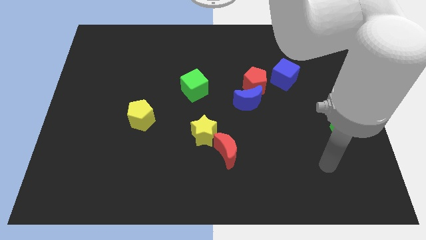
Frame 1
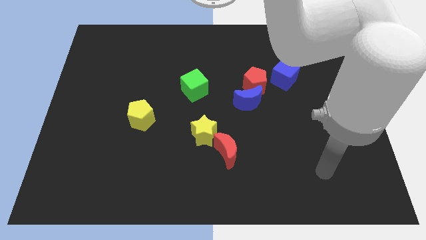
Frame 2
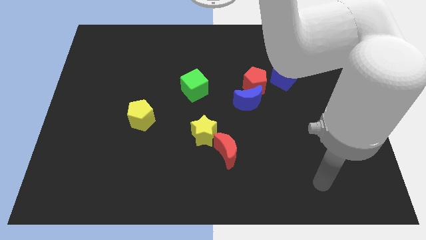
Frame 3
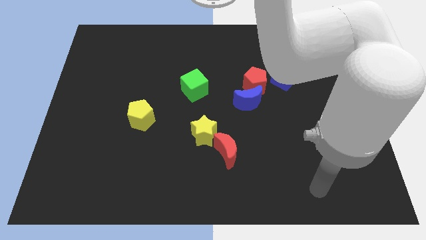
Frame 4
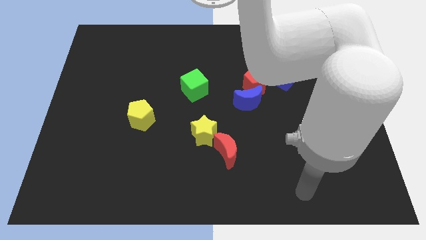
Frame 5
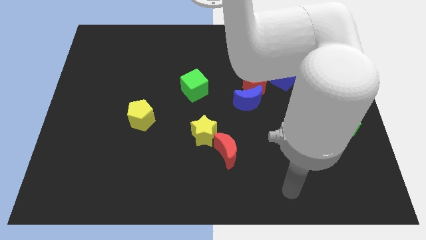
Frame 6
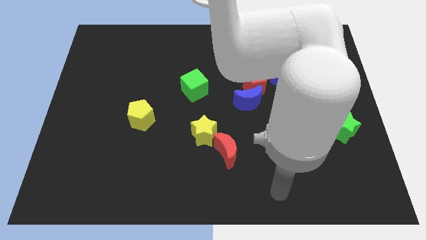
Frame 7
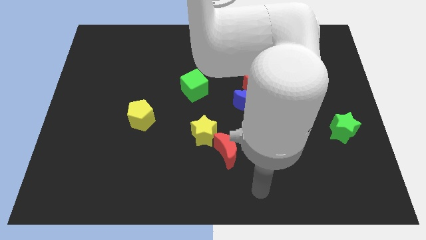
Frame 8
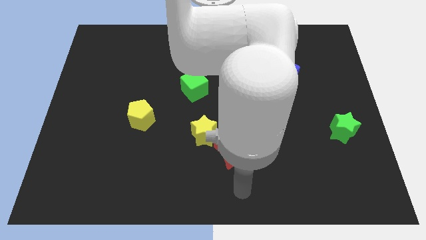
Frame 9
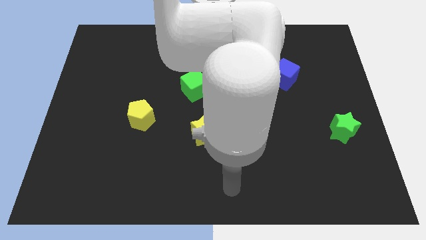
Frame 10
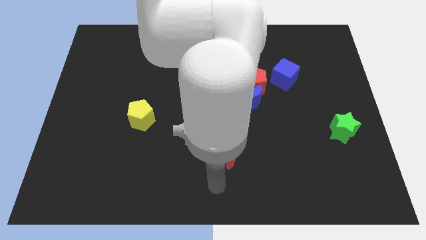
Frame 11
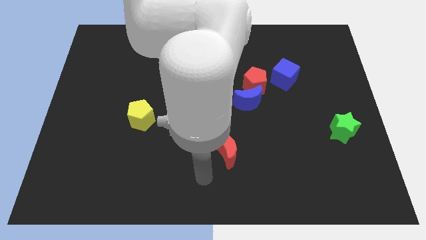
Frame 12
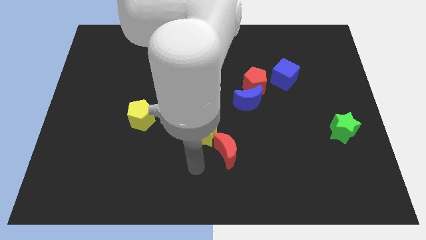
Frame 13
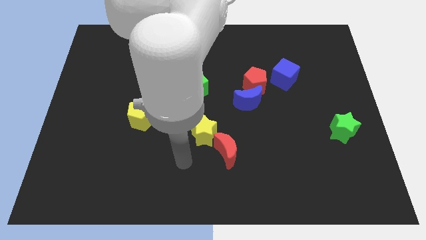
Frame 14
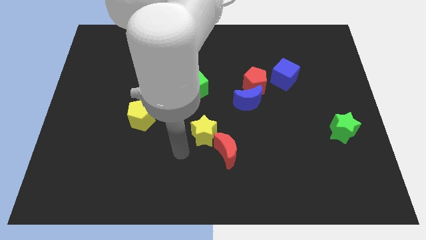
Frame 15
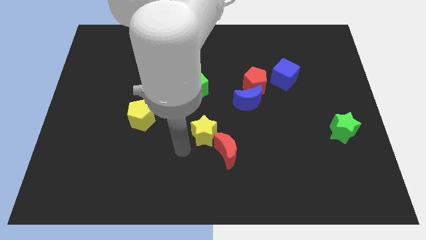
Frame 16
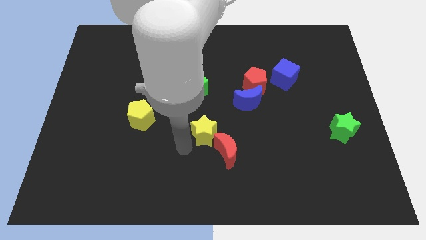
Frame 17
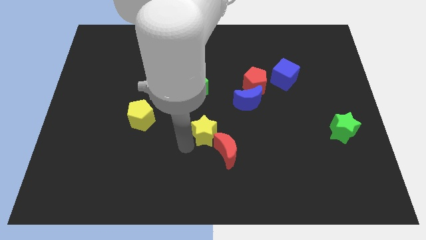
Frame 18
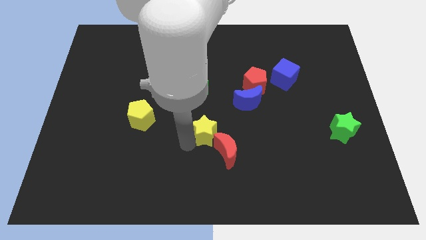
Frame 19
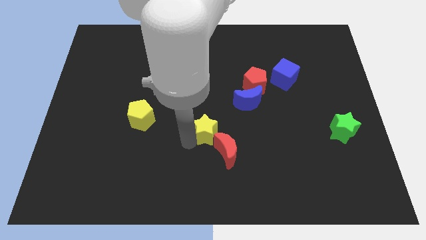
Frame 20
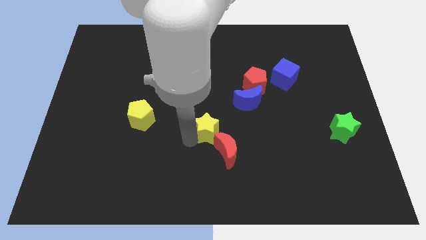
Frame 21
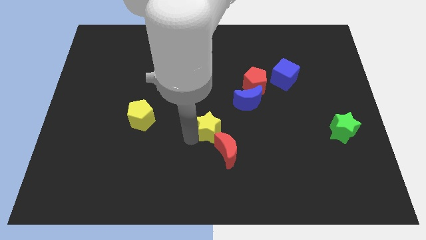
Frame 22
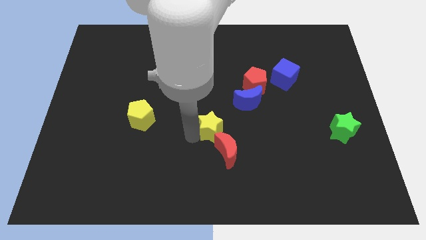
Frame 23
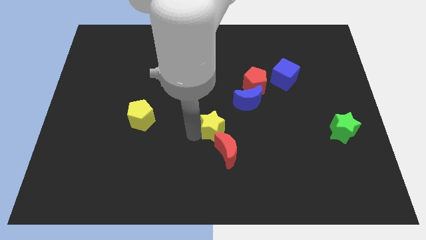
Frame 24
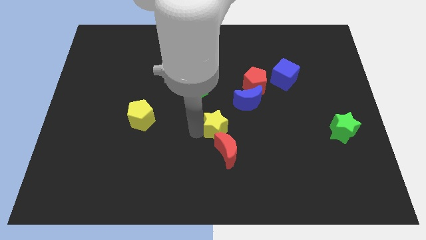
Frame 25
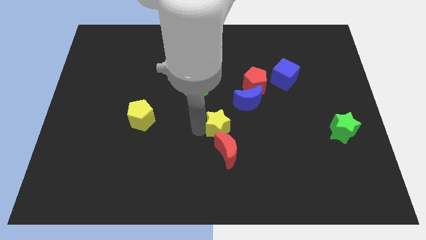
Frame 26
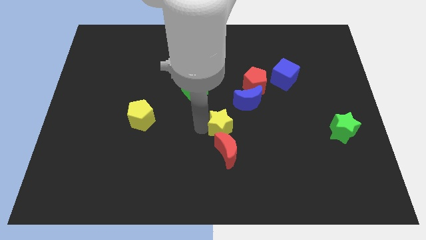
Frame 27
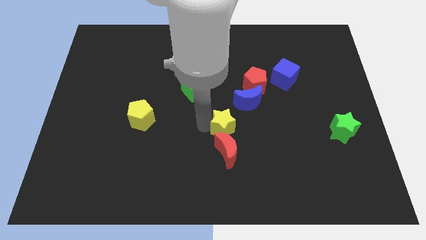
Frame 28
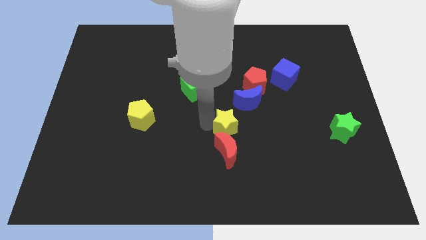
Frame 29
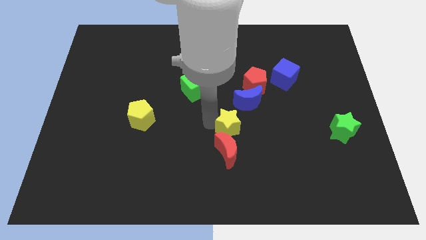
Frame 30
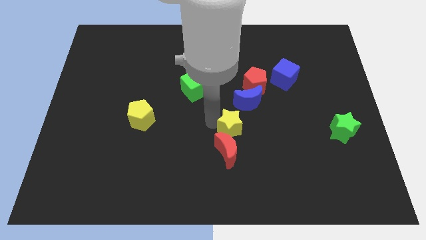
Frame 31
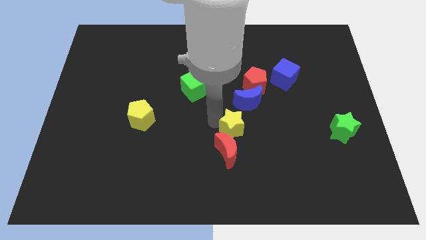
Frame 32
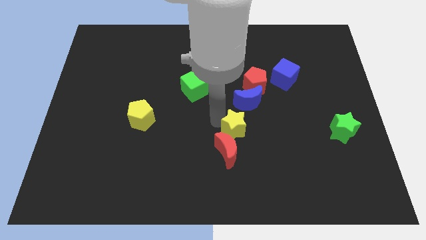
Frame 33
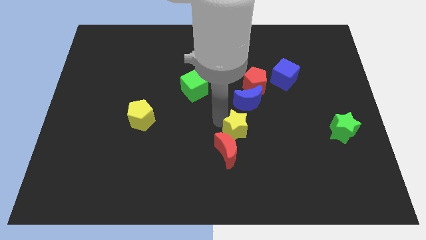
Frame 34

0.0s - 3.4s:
slightly move the yellow star to the right

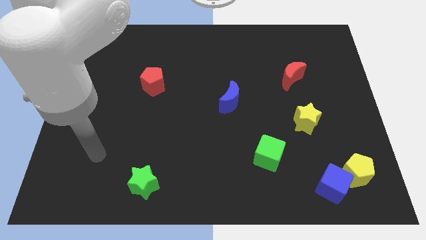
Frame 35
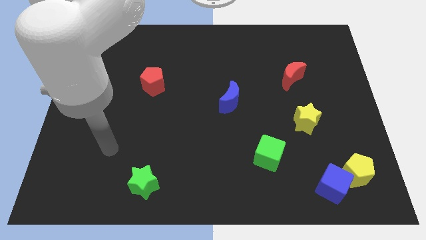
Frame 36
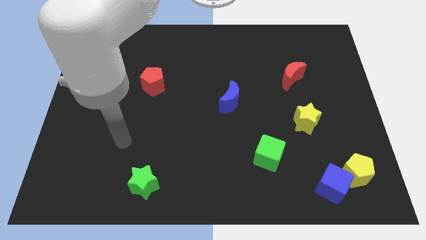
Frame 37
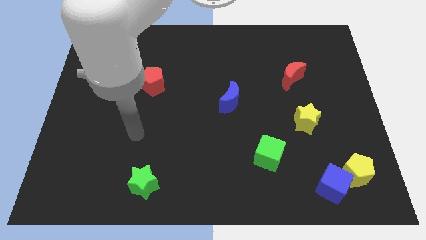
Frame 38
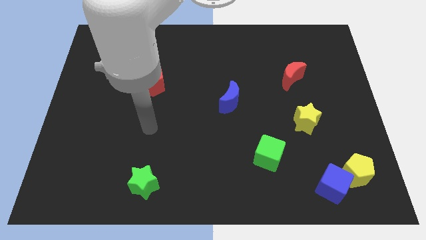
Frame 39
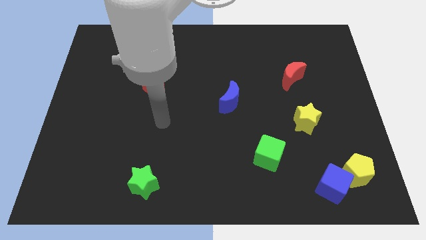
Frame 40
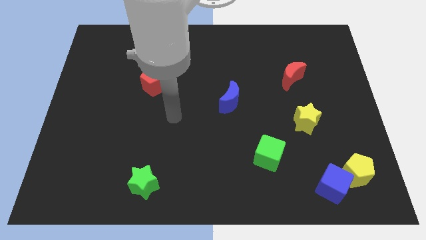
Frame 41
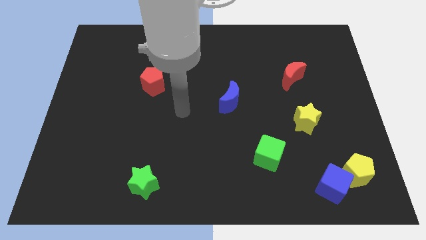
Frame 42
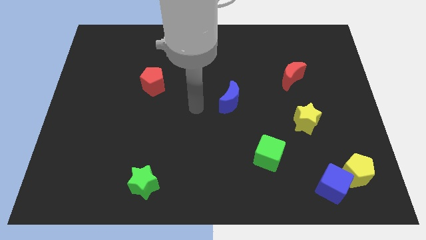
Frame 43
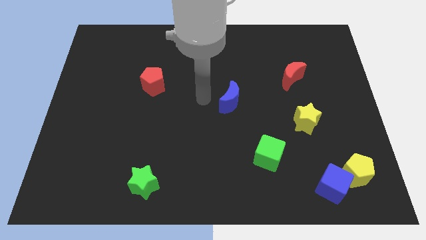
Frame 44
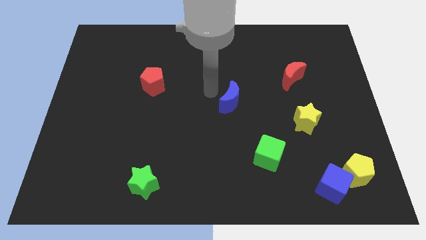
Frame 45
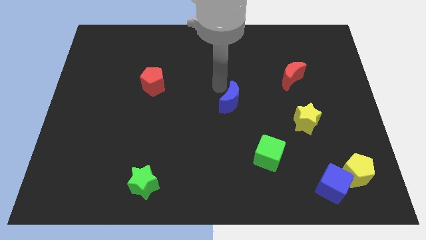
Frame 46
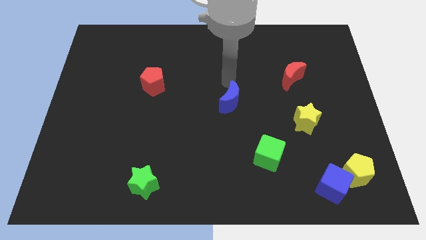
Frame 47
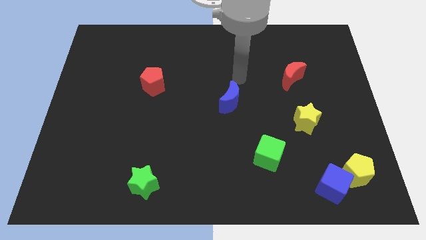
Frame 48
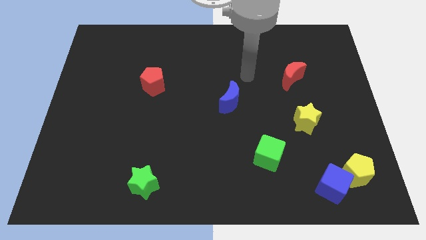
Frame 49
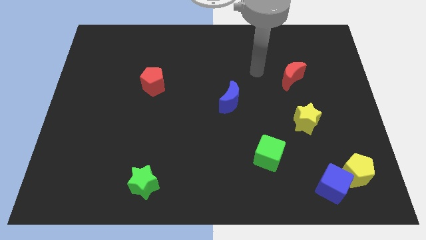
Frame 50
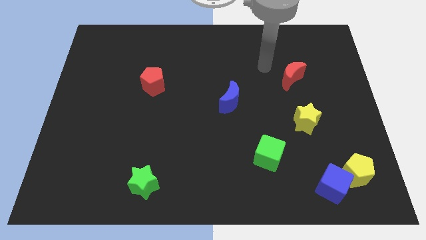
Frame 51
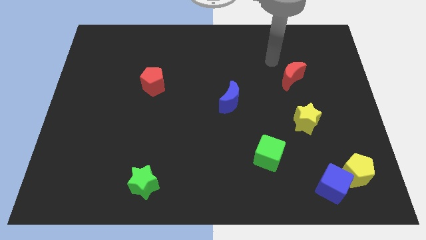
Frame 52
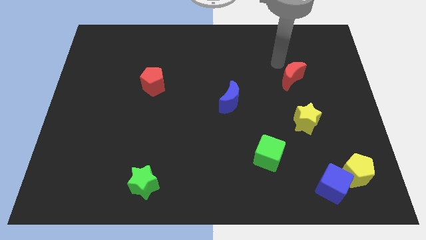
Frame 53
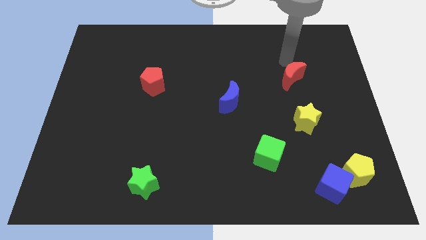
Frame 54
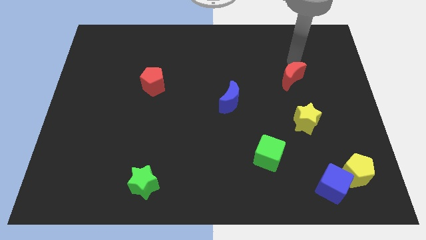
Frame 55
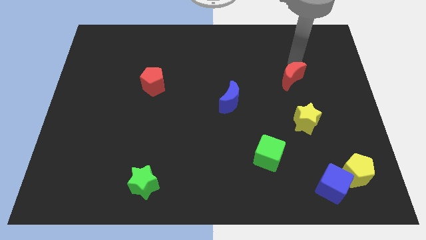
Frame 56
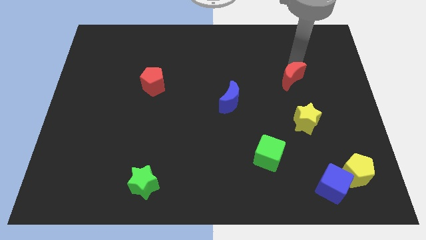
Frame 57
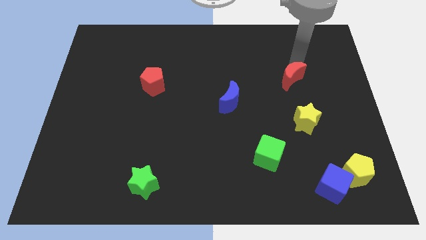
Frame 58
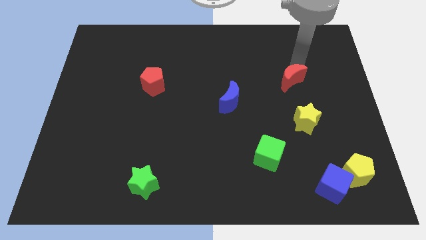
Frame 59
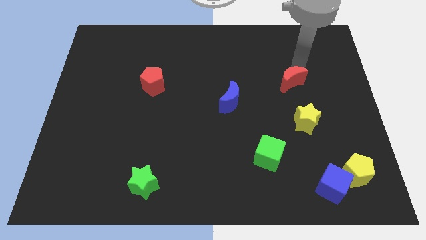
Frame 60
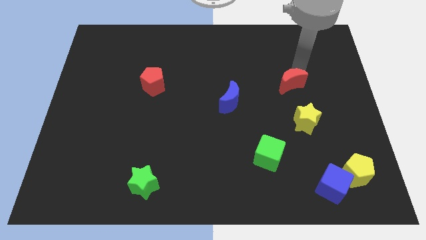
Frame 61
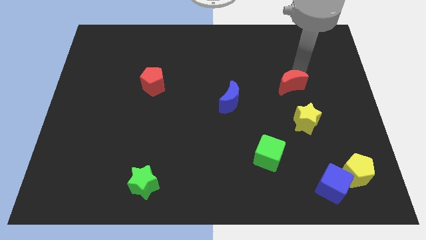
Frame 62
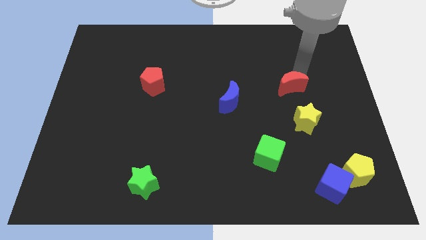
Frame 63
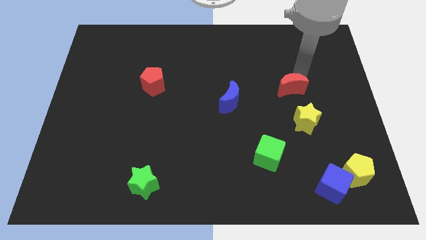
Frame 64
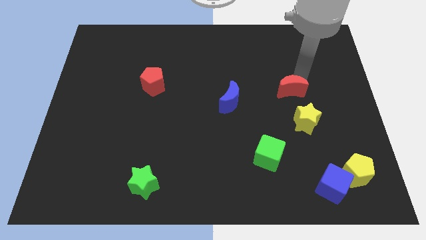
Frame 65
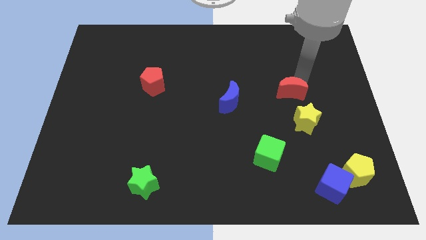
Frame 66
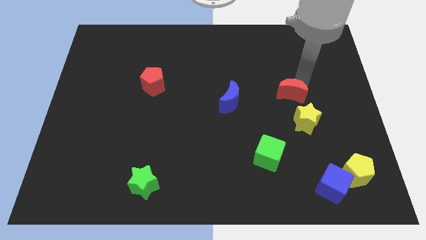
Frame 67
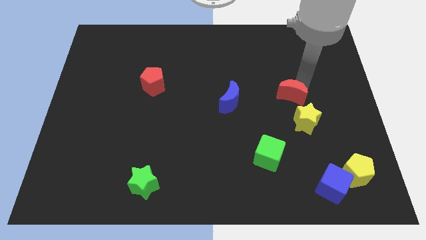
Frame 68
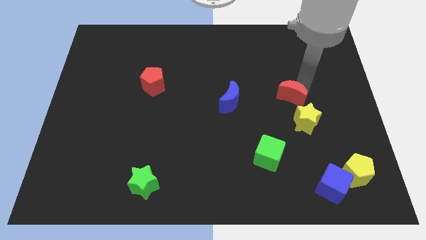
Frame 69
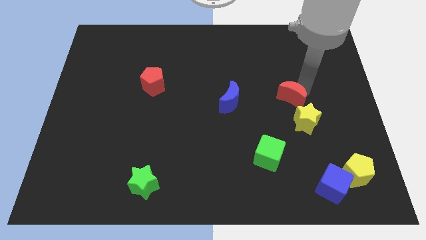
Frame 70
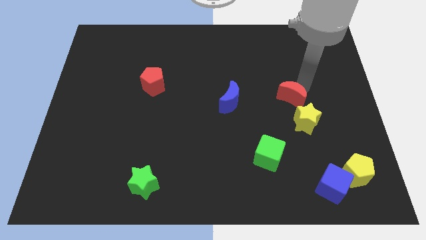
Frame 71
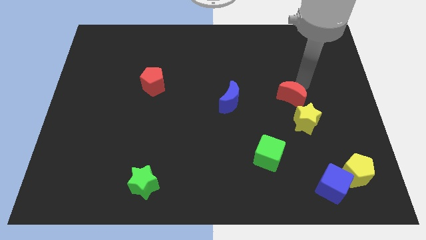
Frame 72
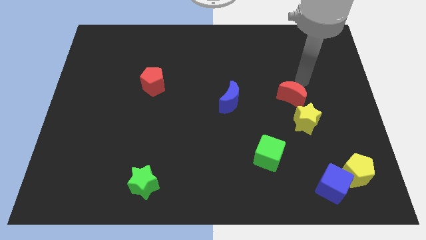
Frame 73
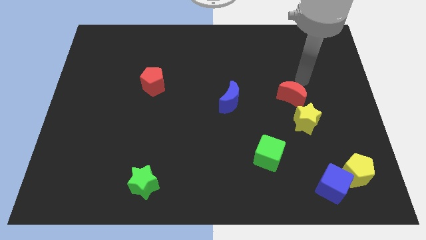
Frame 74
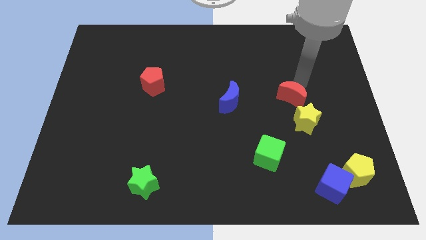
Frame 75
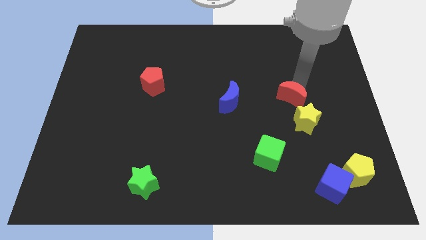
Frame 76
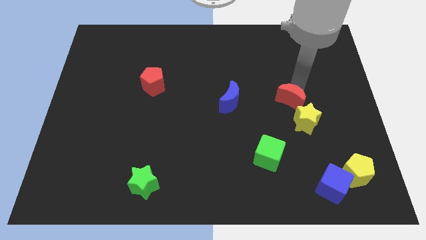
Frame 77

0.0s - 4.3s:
push the red moon somewhat down

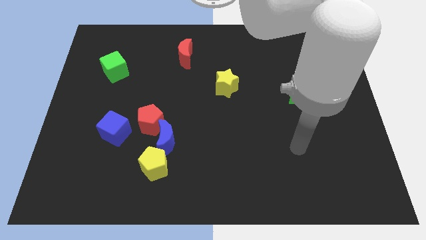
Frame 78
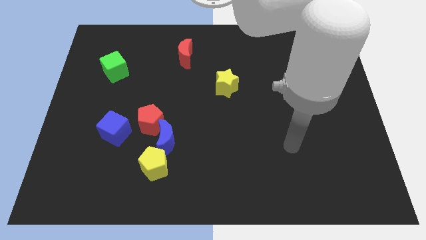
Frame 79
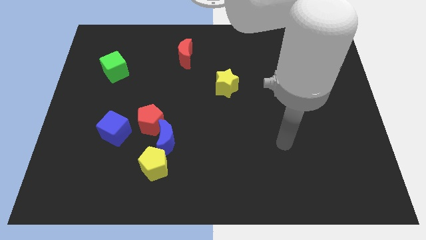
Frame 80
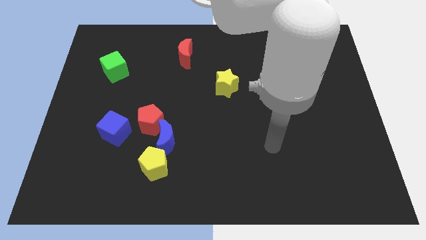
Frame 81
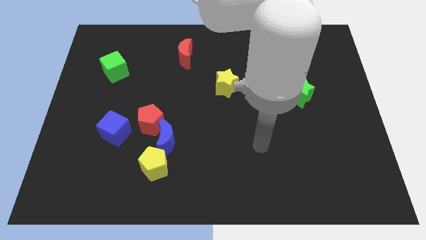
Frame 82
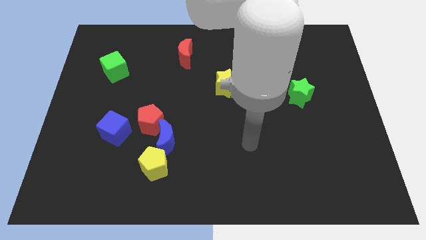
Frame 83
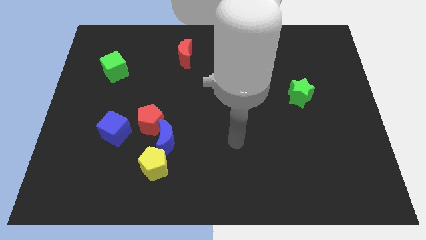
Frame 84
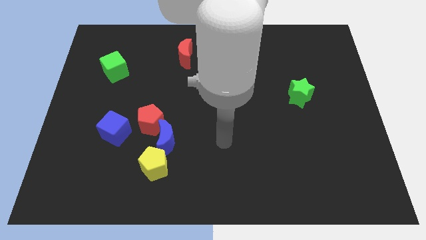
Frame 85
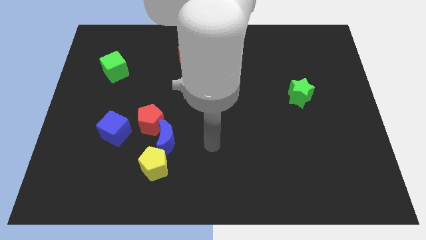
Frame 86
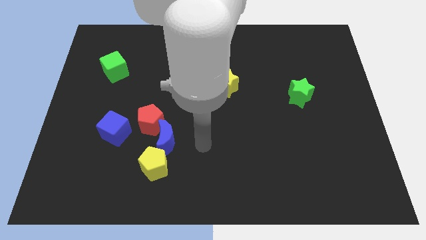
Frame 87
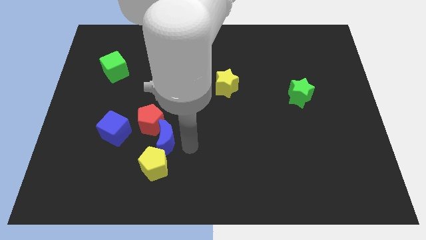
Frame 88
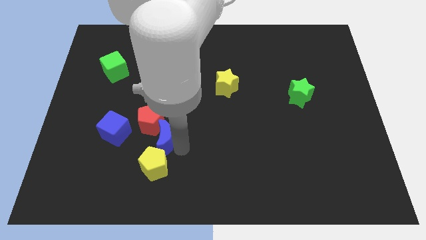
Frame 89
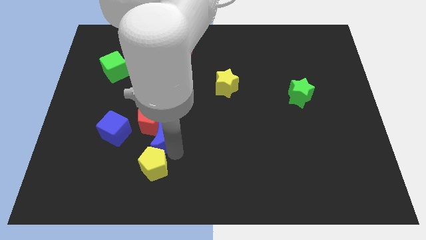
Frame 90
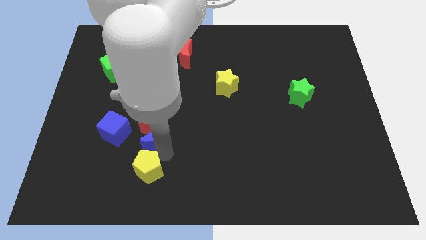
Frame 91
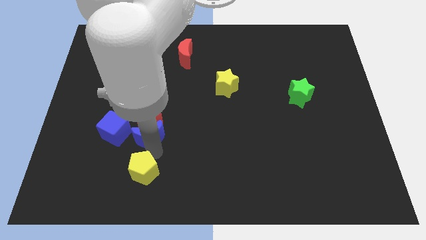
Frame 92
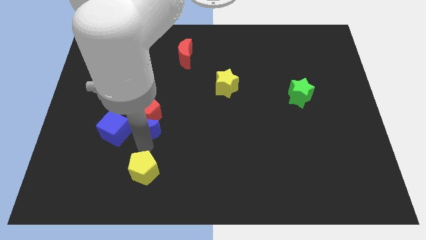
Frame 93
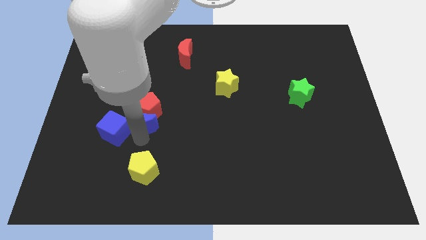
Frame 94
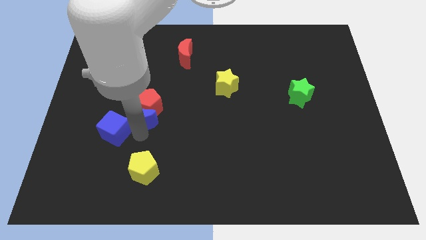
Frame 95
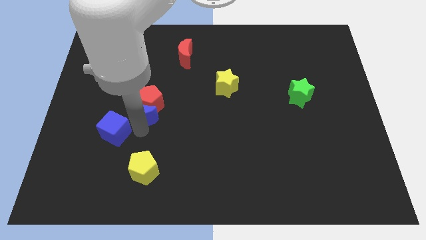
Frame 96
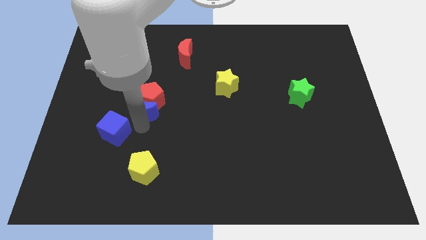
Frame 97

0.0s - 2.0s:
slide the red pentagon upwards a little bit
